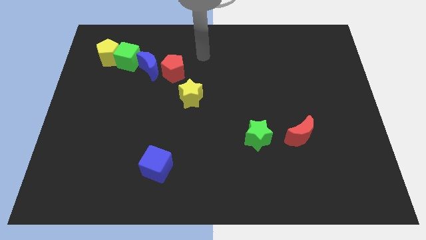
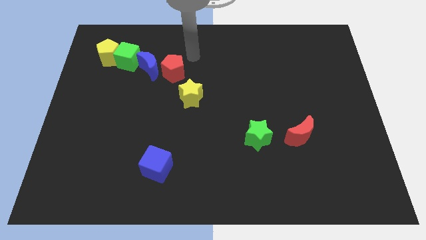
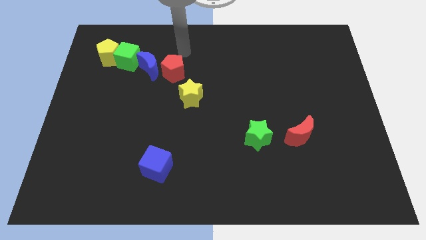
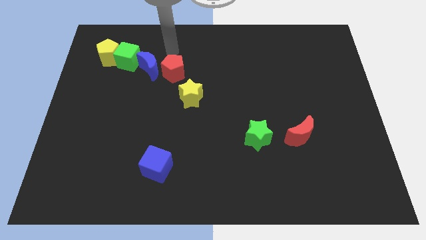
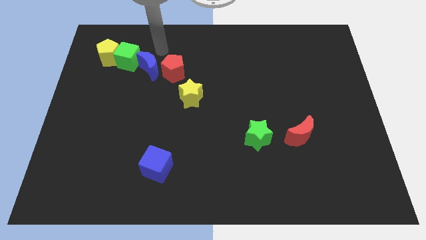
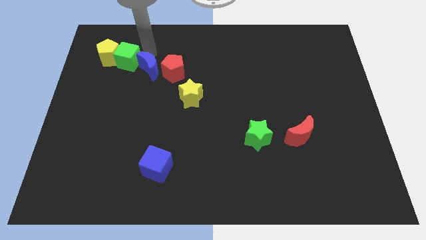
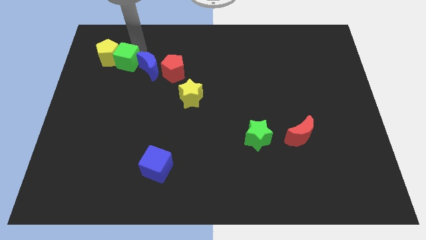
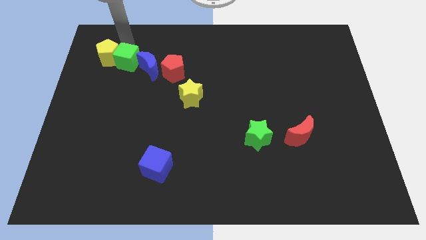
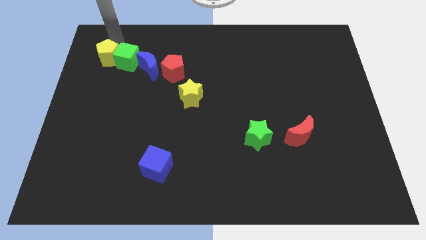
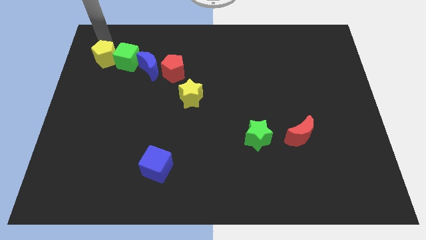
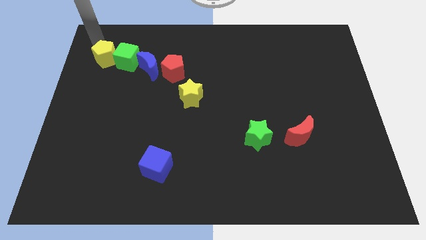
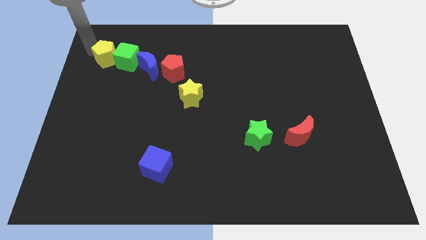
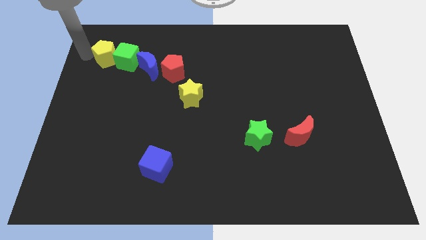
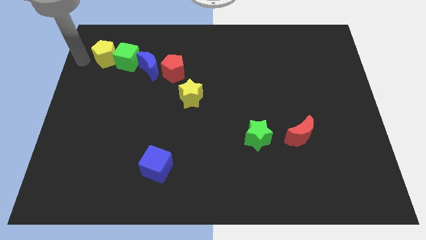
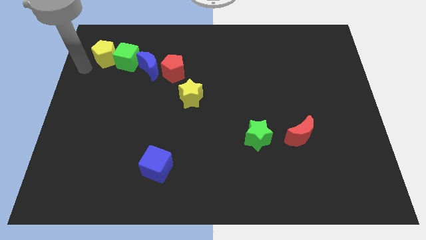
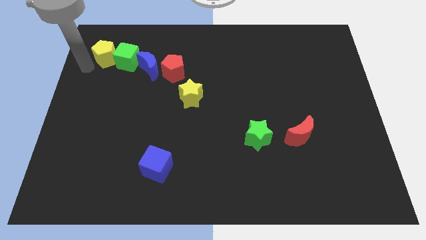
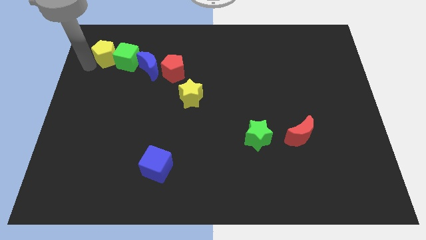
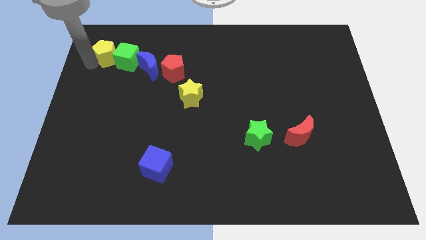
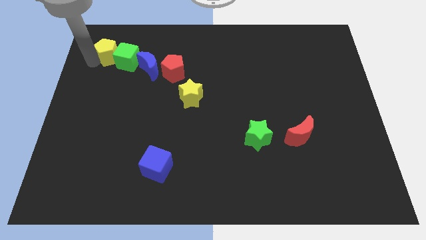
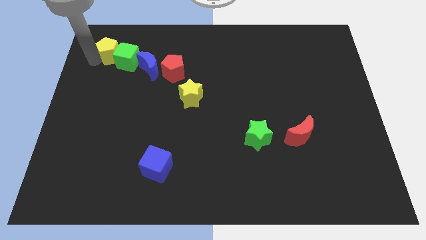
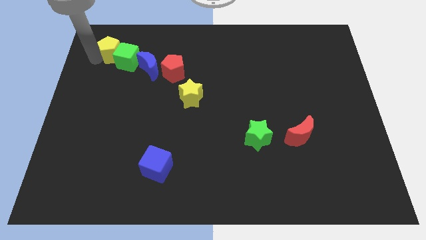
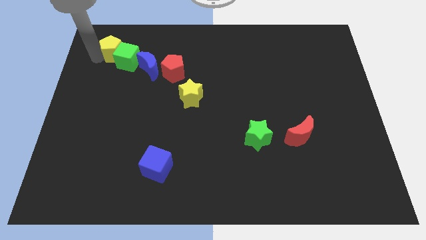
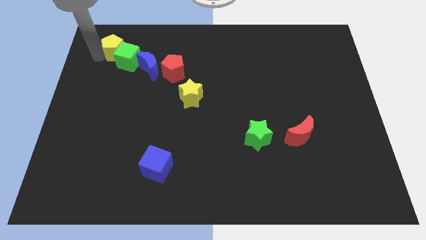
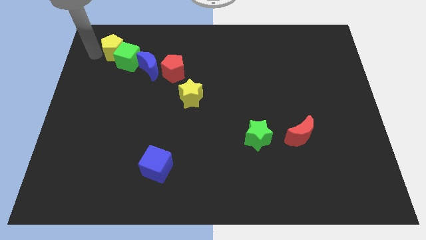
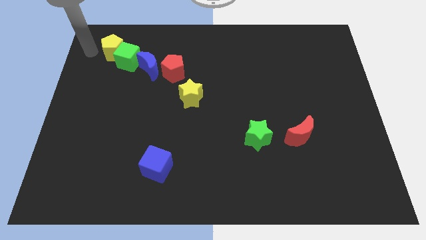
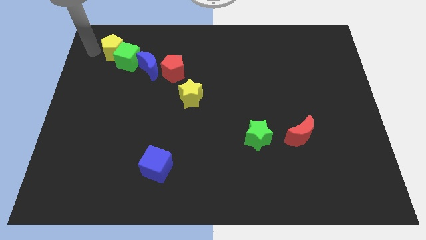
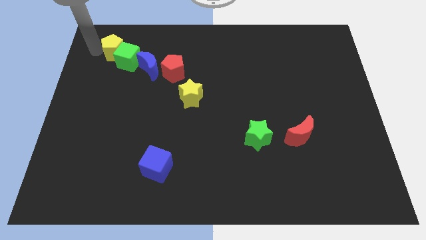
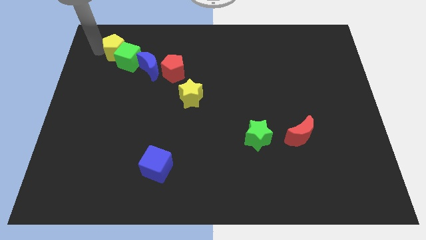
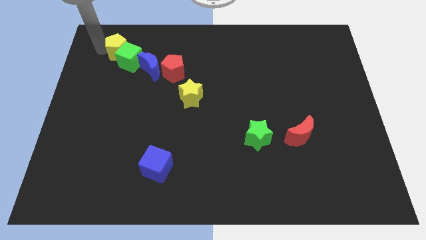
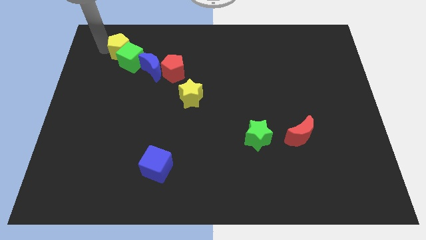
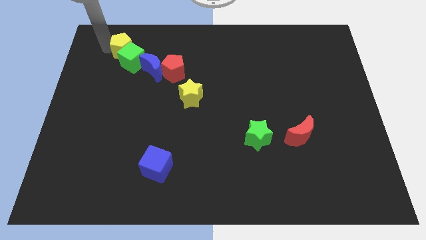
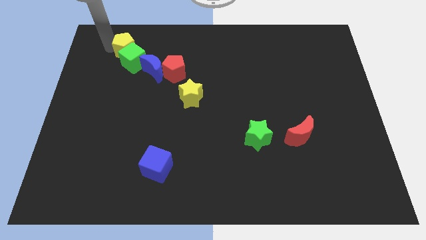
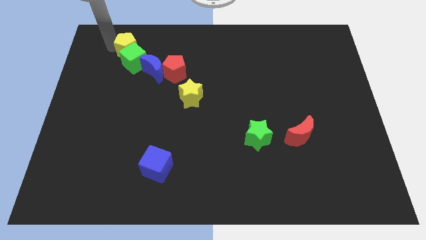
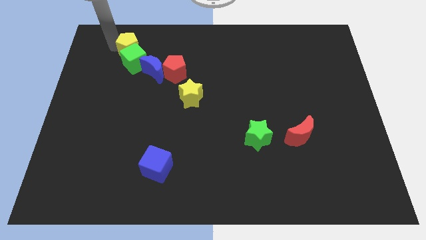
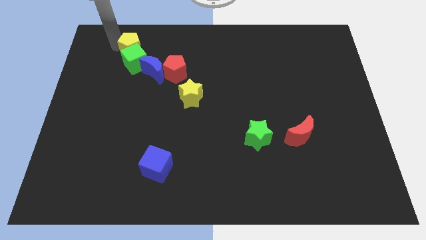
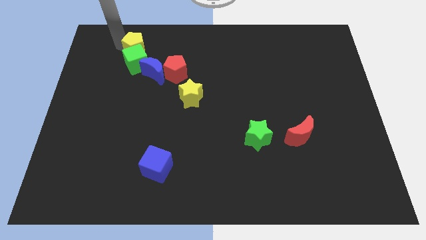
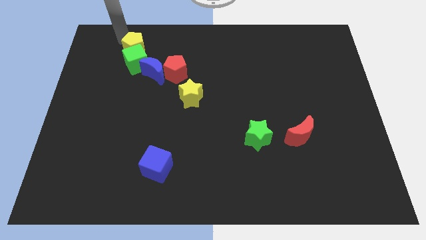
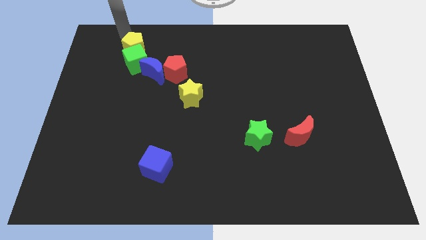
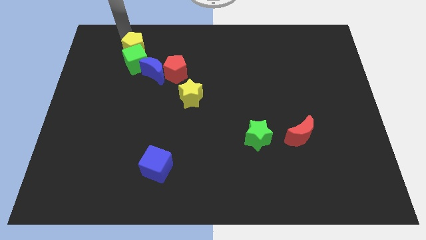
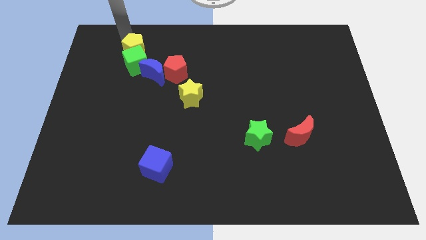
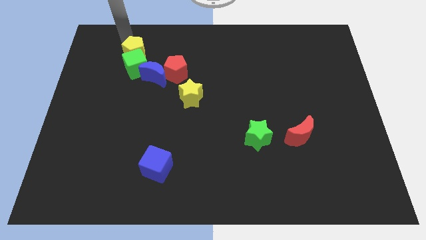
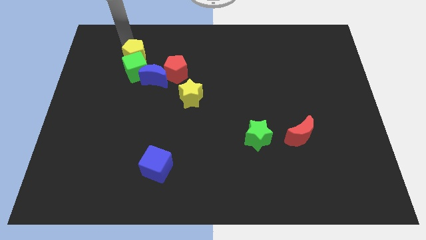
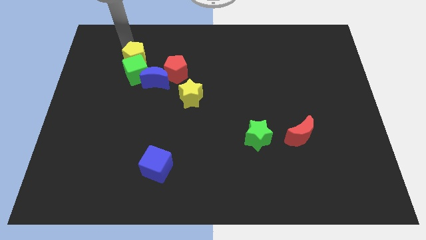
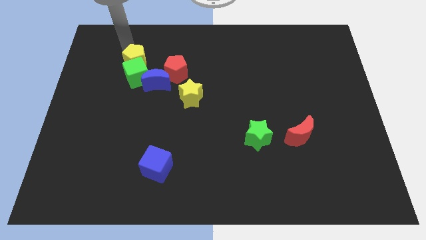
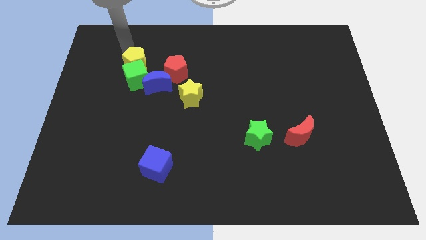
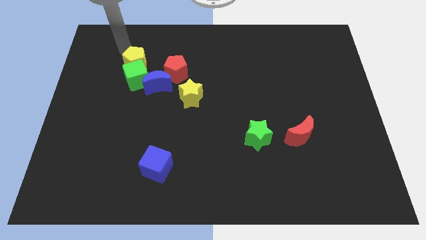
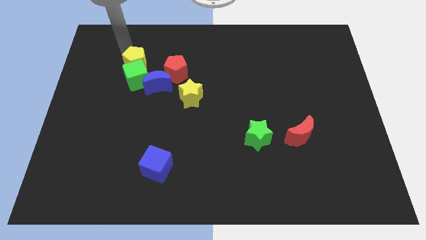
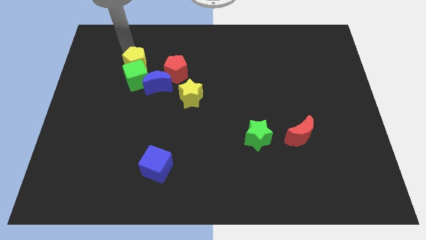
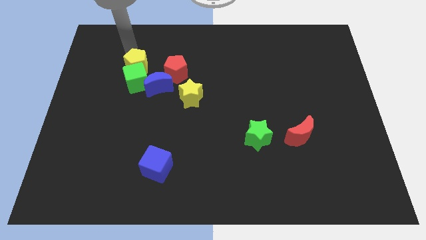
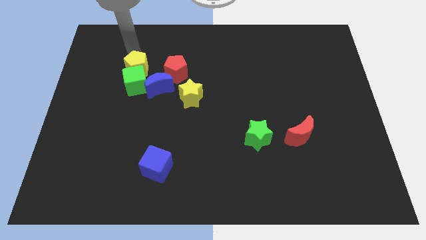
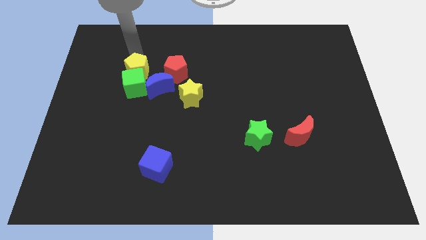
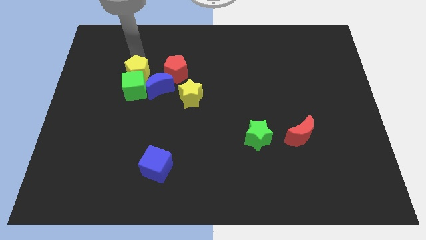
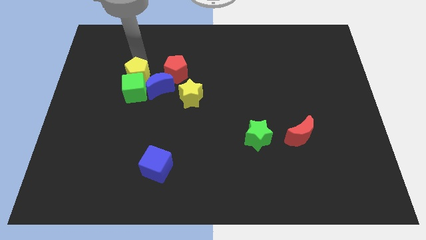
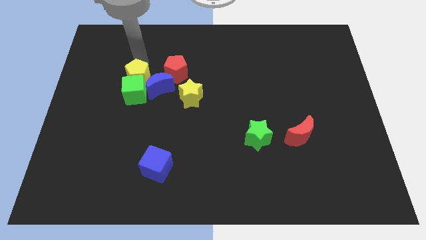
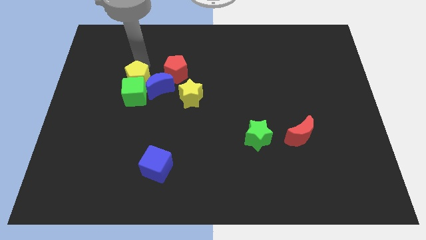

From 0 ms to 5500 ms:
push the yellow pentagon next to the blue moon

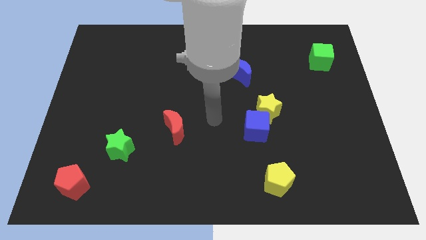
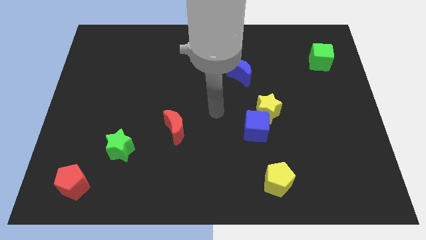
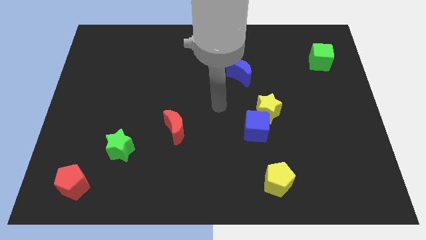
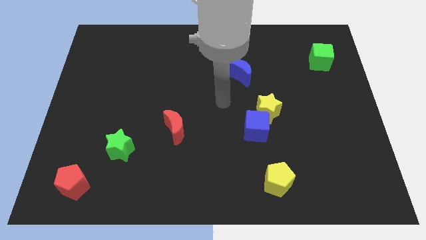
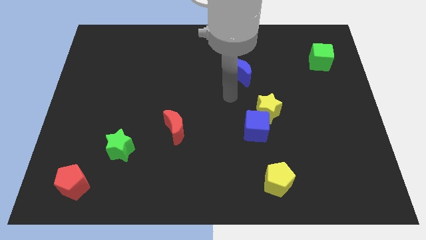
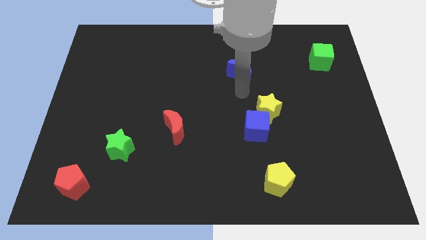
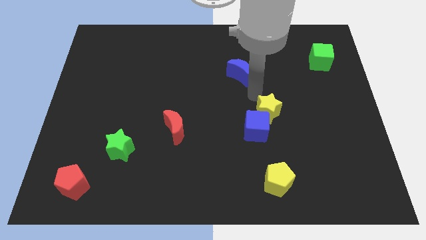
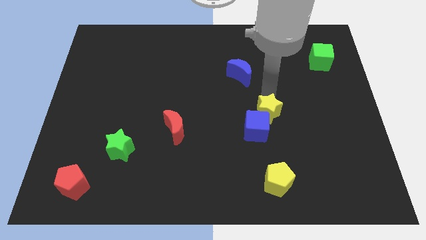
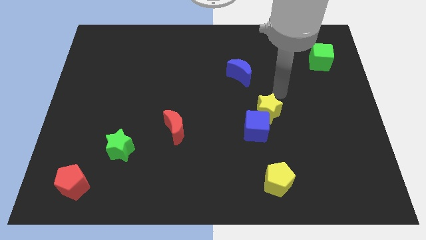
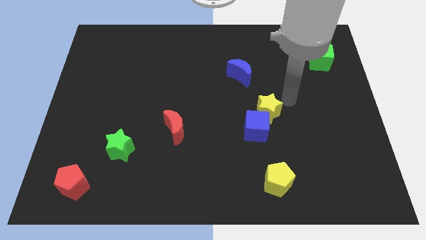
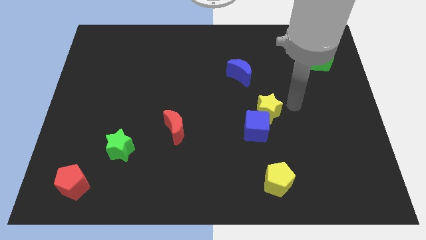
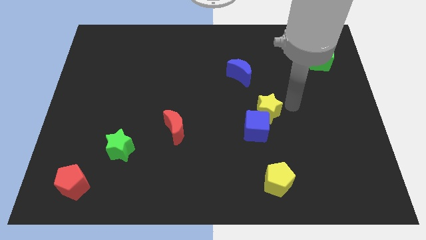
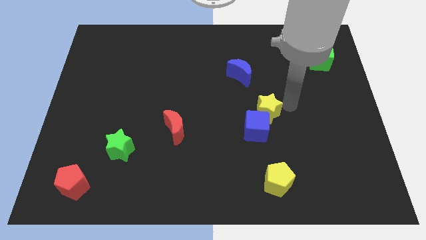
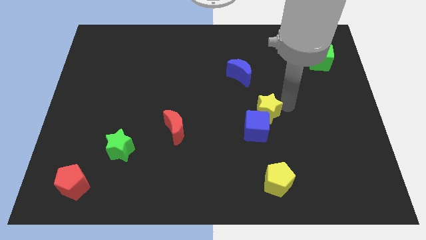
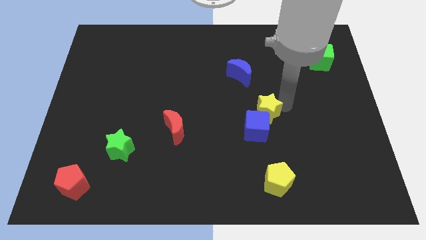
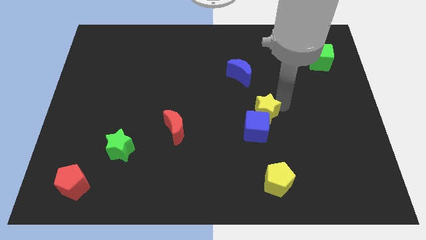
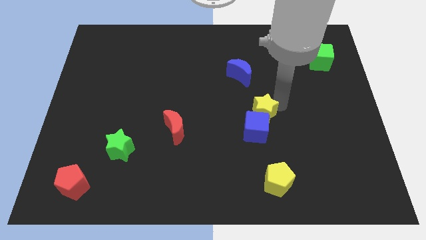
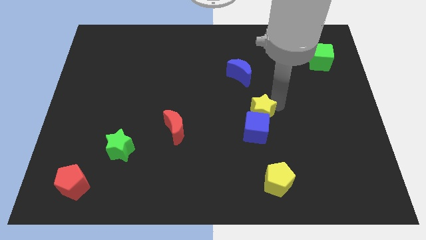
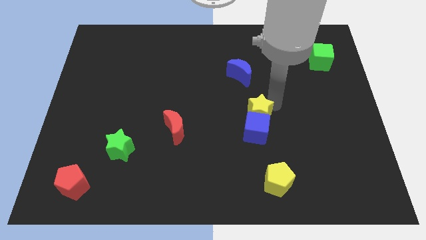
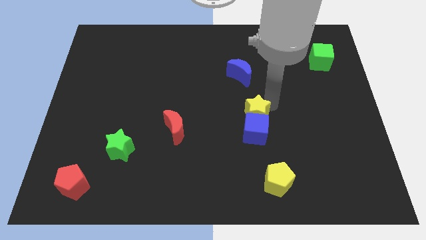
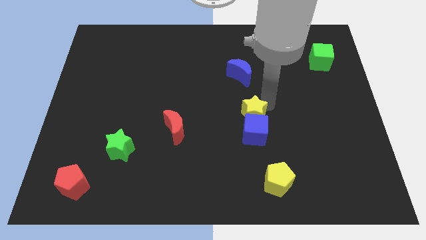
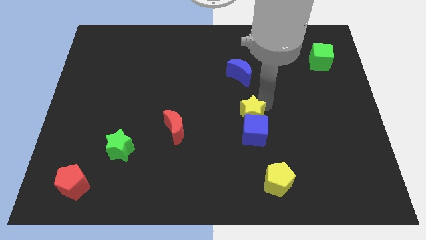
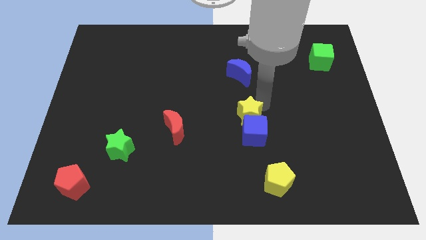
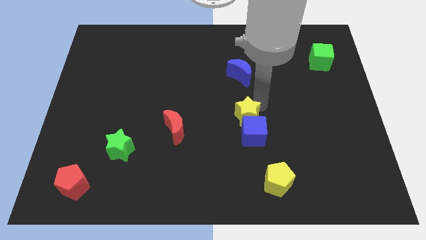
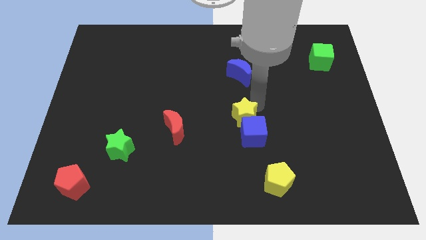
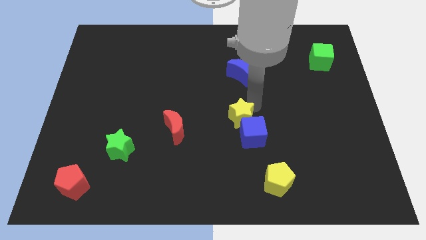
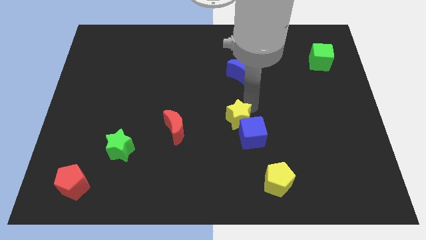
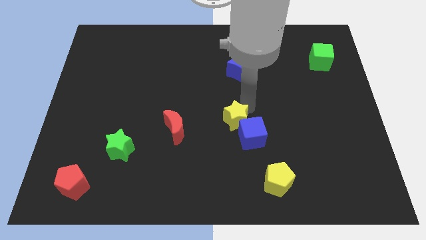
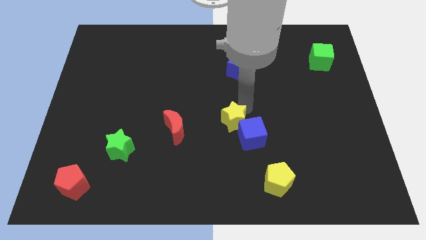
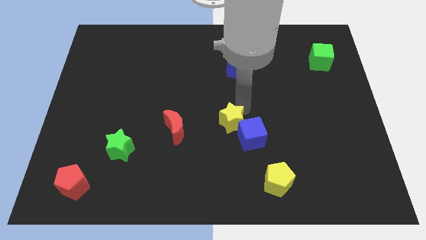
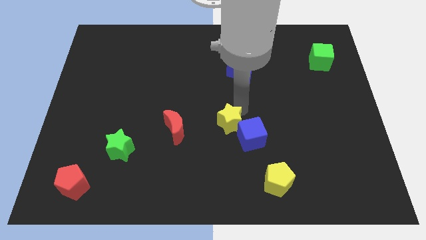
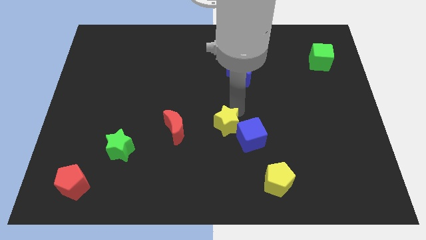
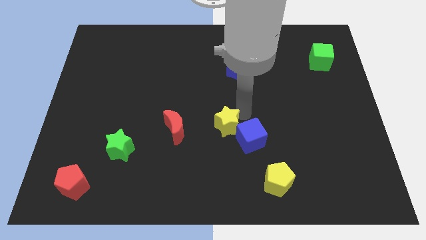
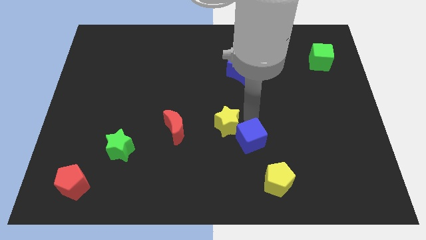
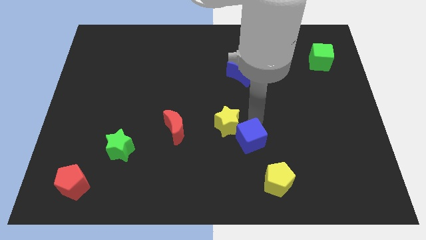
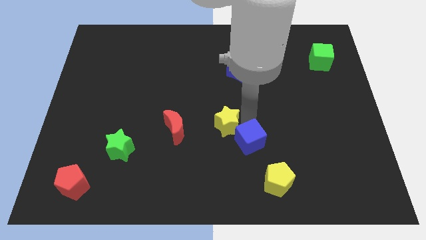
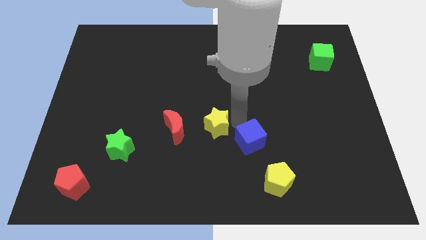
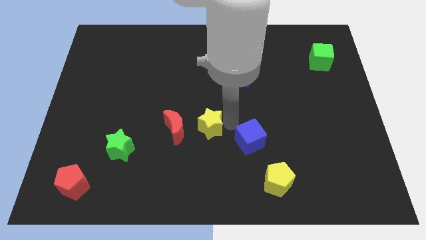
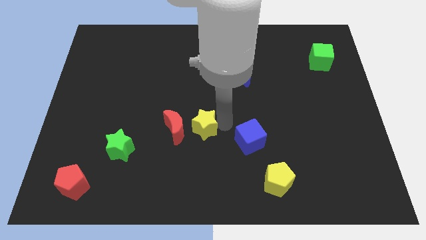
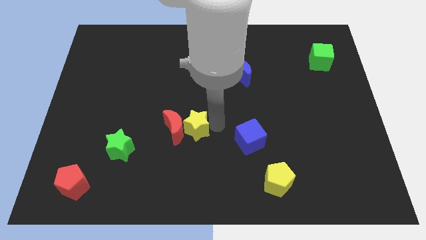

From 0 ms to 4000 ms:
push the yellow star to the red moon
